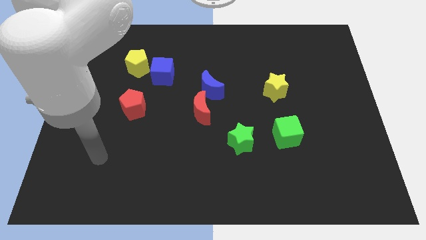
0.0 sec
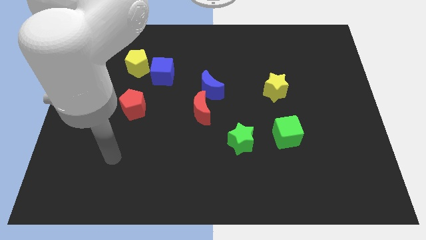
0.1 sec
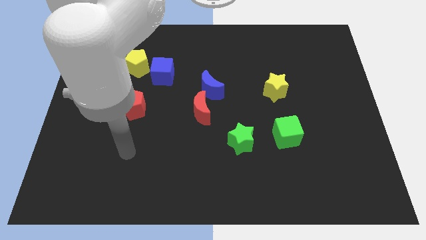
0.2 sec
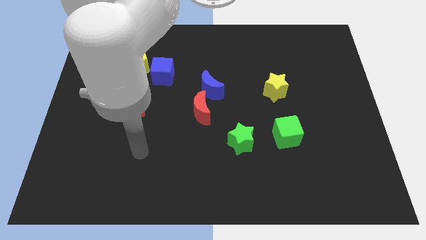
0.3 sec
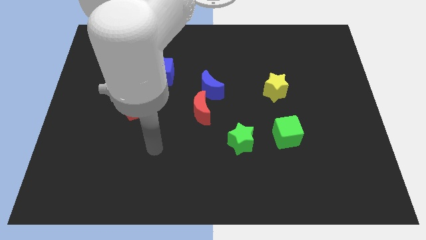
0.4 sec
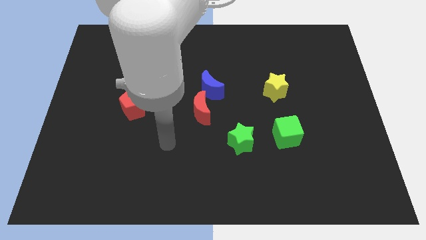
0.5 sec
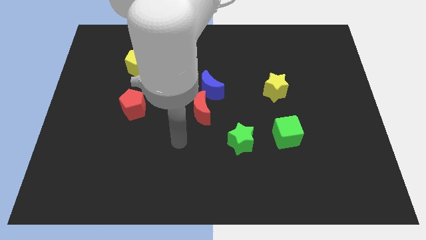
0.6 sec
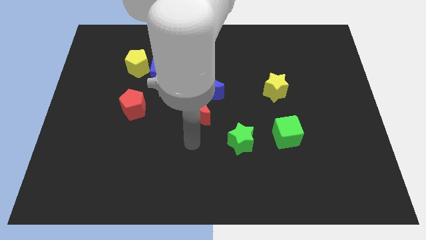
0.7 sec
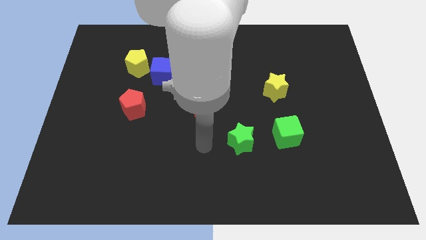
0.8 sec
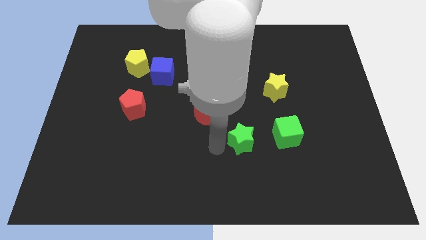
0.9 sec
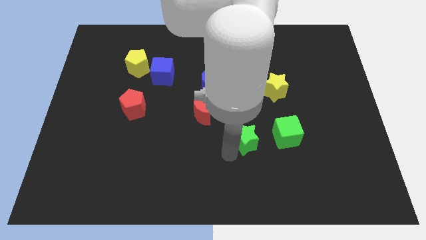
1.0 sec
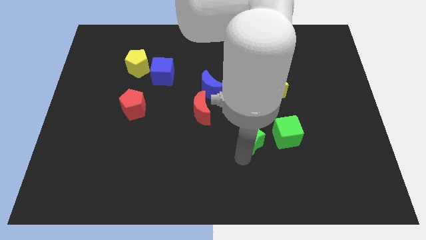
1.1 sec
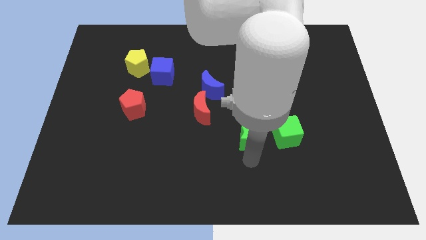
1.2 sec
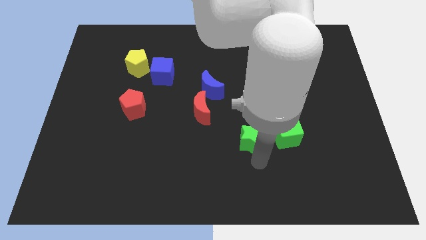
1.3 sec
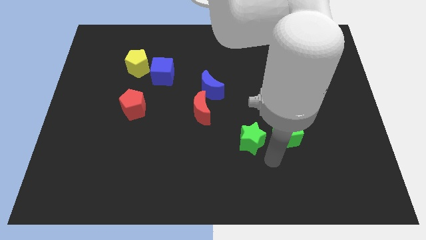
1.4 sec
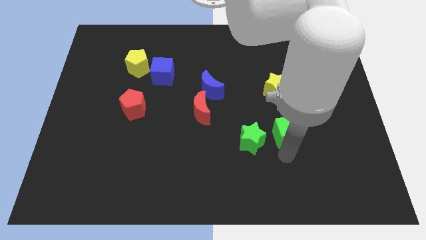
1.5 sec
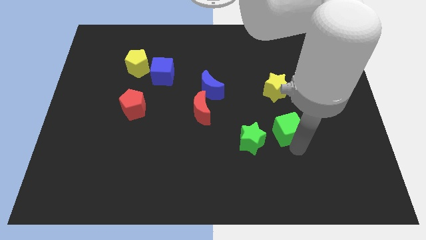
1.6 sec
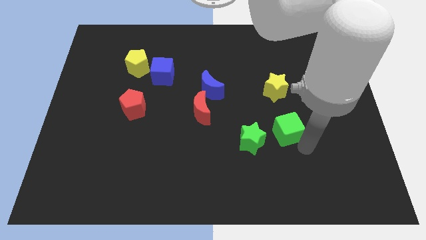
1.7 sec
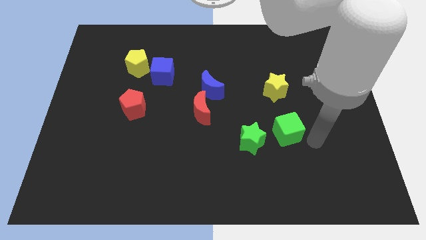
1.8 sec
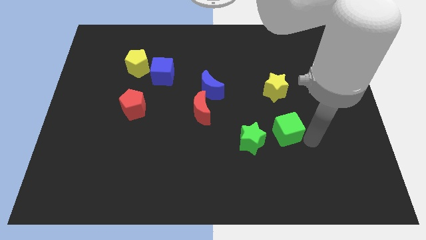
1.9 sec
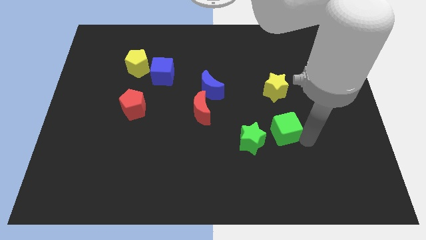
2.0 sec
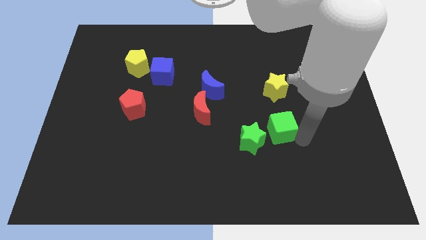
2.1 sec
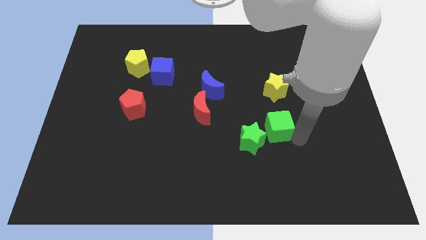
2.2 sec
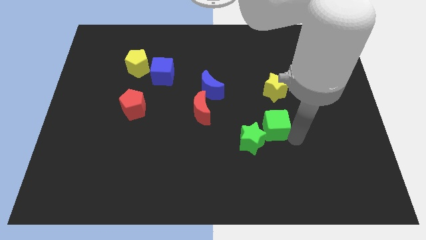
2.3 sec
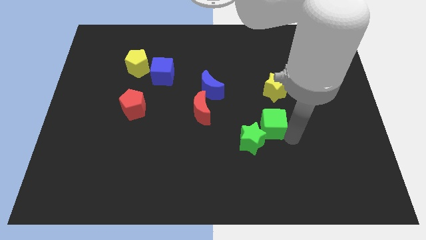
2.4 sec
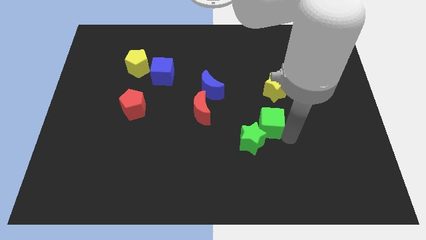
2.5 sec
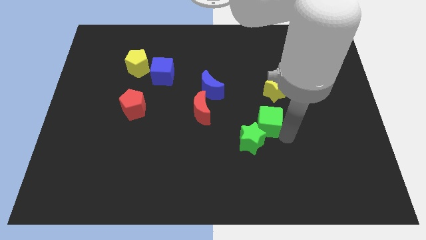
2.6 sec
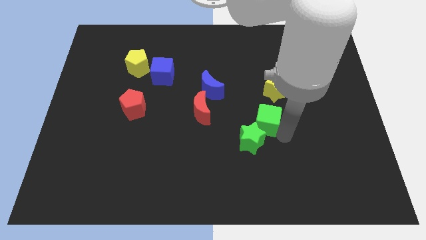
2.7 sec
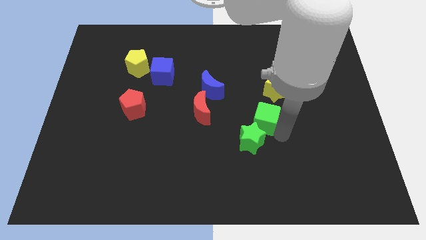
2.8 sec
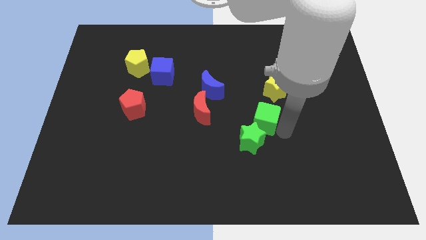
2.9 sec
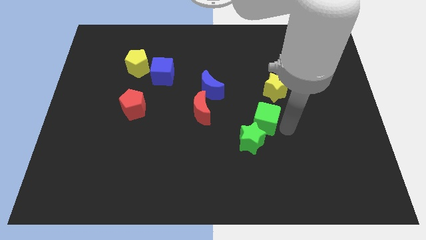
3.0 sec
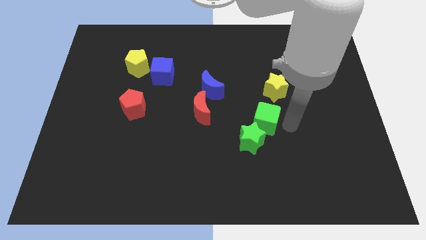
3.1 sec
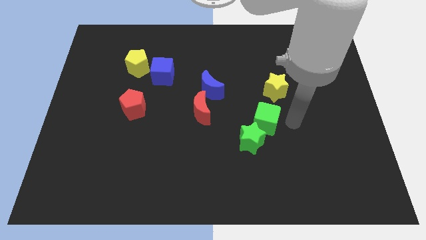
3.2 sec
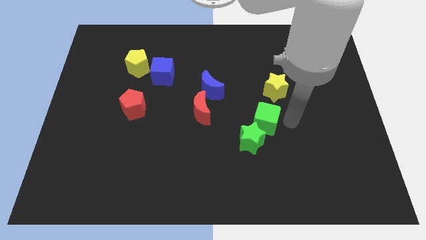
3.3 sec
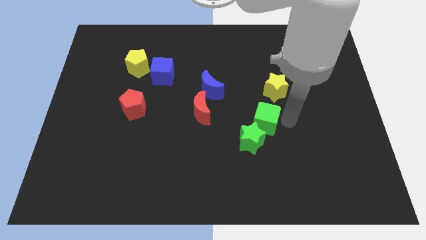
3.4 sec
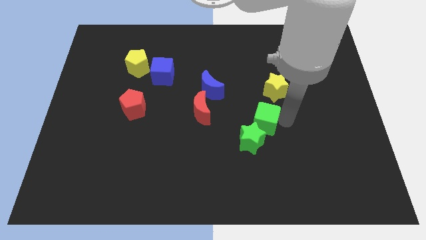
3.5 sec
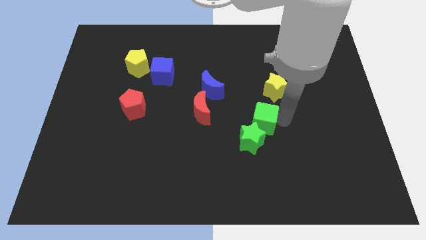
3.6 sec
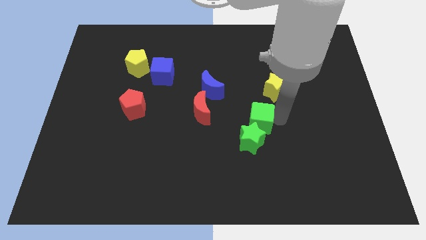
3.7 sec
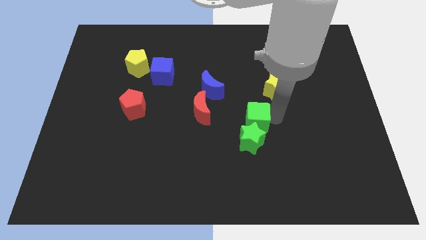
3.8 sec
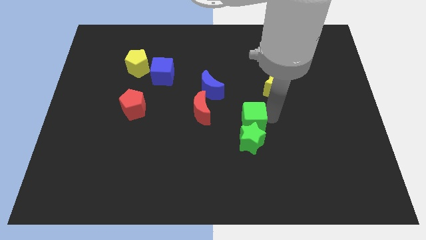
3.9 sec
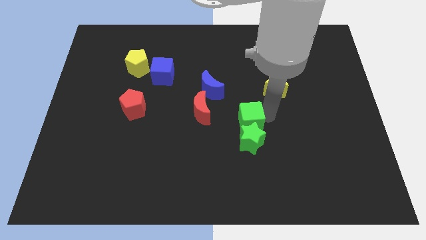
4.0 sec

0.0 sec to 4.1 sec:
slightly push the green cube to the left

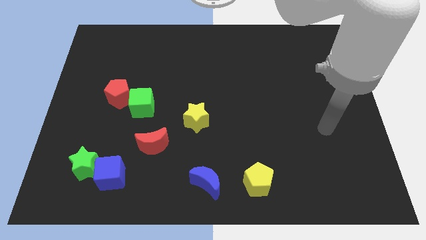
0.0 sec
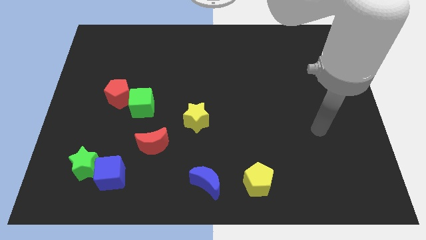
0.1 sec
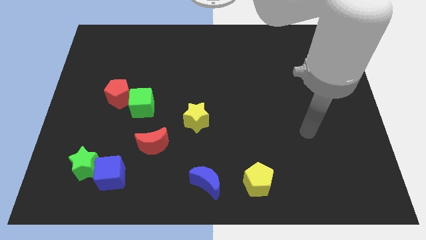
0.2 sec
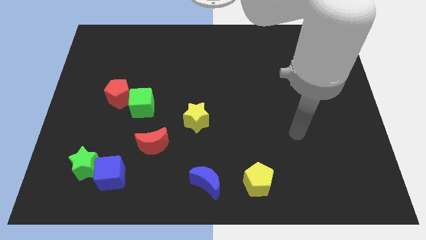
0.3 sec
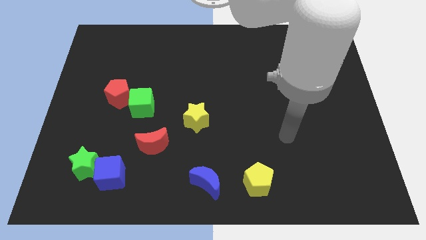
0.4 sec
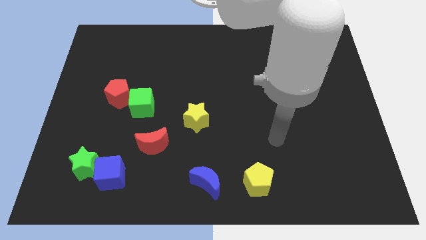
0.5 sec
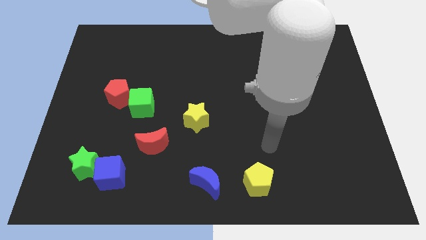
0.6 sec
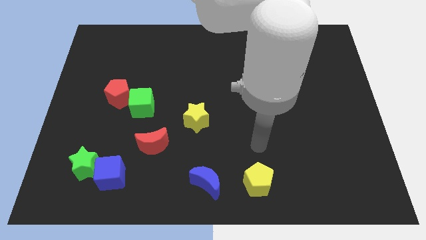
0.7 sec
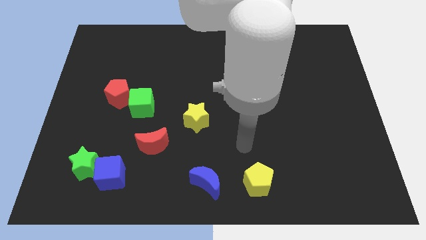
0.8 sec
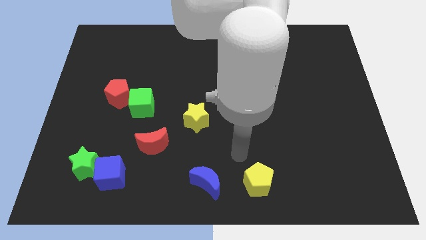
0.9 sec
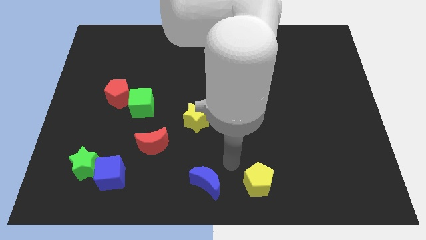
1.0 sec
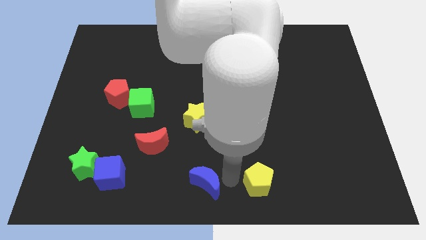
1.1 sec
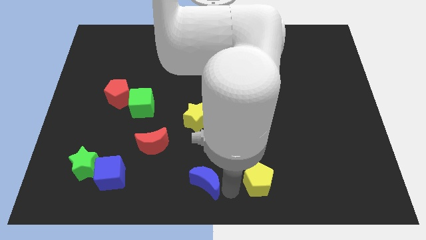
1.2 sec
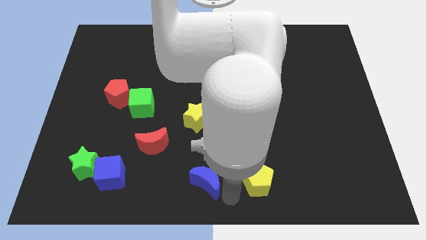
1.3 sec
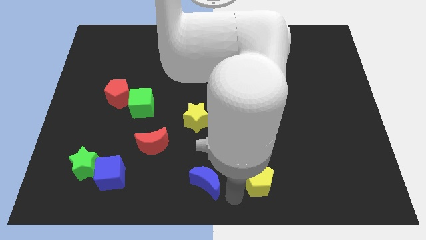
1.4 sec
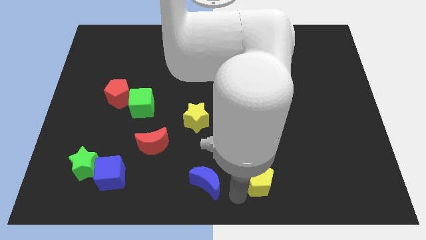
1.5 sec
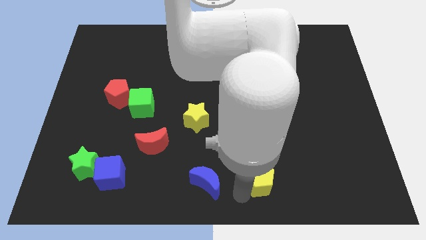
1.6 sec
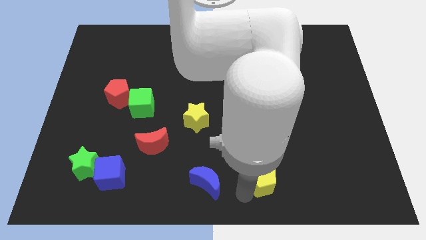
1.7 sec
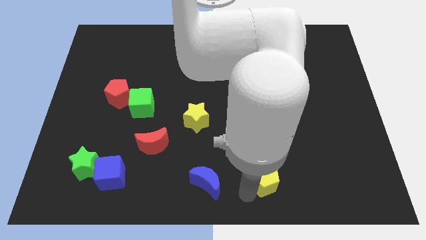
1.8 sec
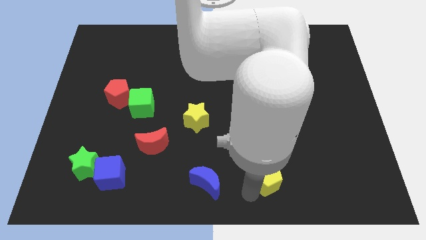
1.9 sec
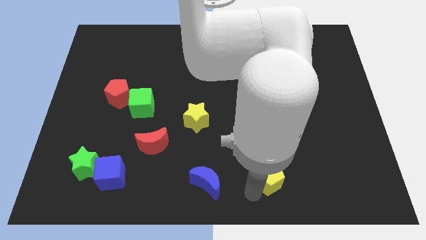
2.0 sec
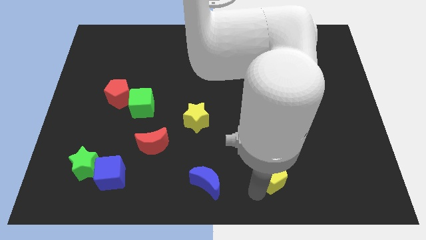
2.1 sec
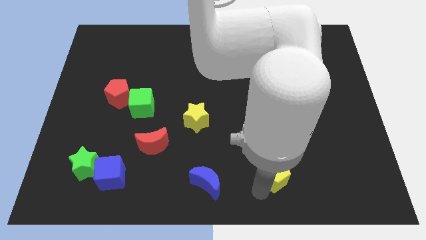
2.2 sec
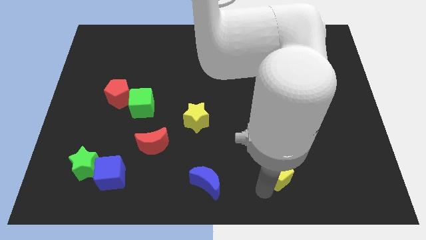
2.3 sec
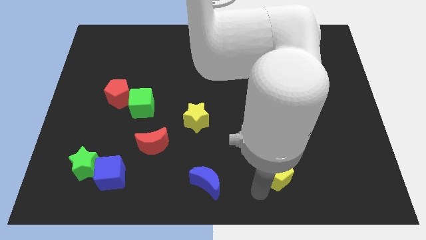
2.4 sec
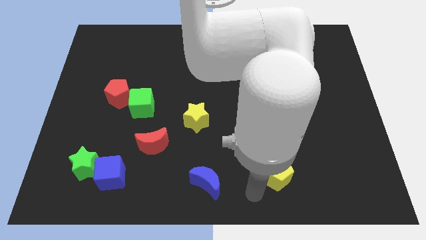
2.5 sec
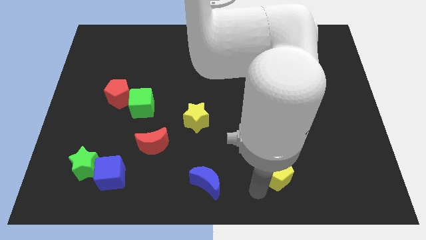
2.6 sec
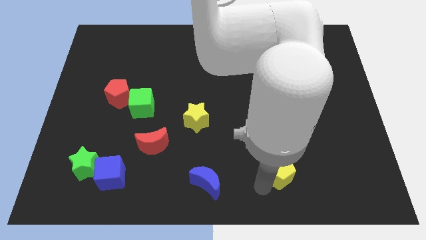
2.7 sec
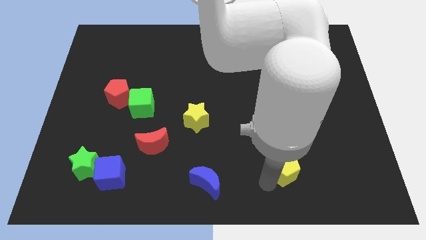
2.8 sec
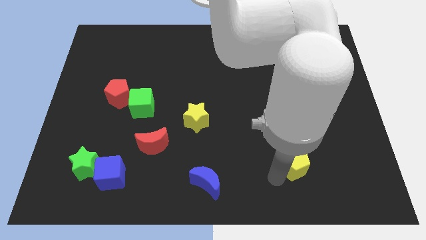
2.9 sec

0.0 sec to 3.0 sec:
slightly push the yellow pentagon diagonally upwards and to the right
